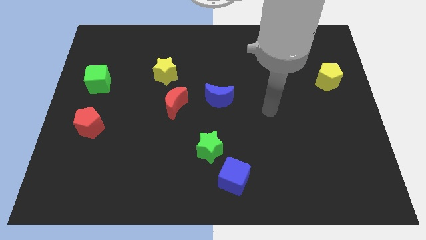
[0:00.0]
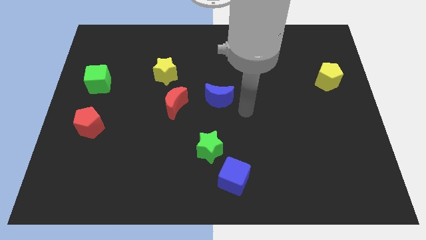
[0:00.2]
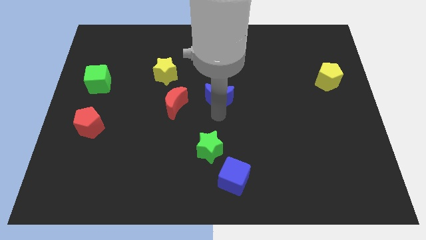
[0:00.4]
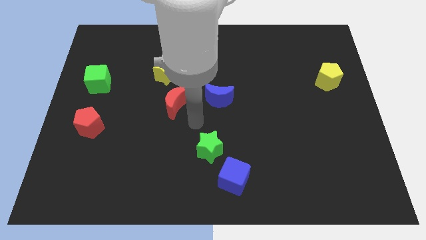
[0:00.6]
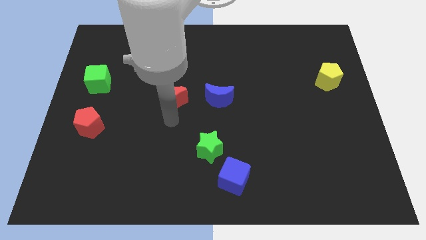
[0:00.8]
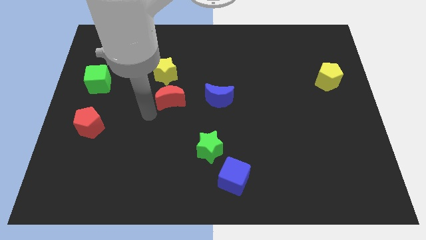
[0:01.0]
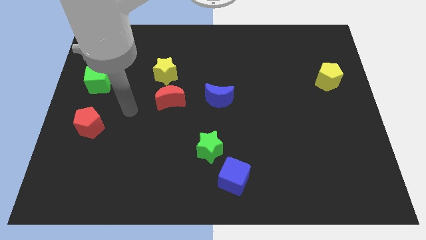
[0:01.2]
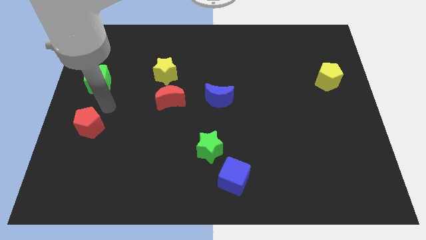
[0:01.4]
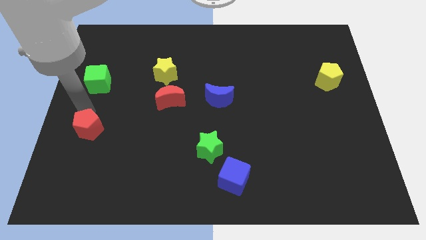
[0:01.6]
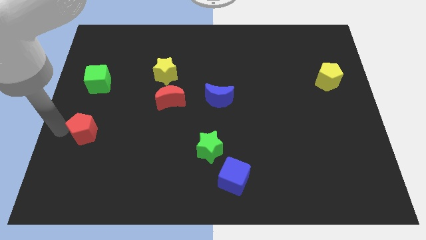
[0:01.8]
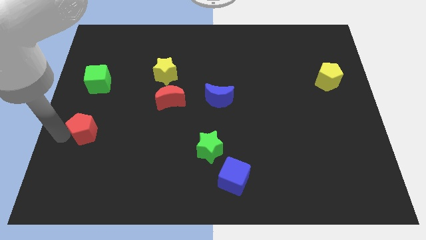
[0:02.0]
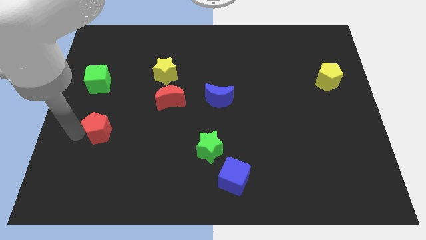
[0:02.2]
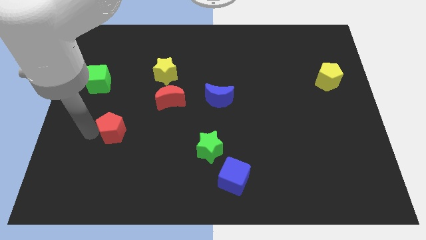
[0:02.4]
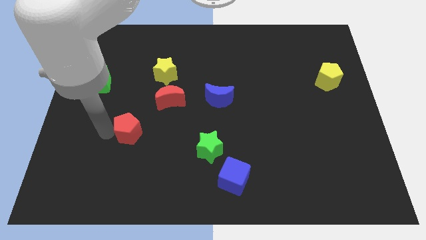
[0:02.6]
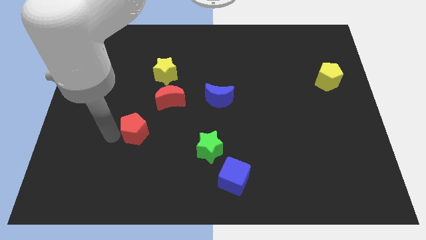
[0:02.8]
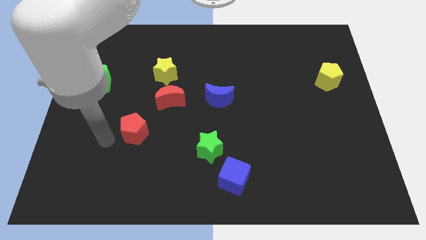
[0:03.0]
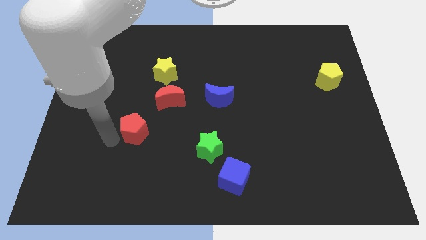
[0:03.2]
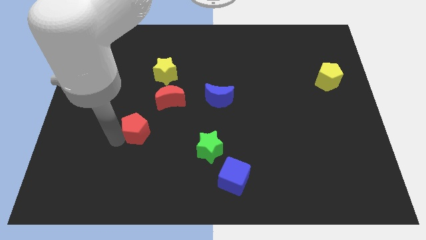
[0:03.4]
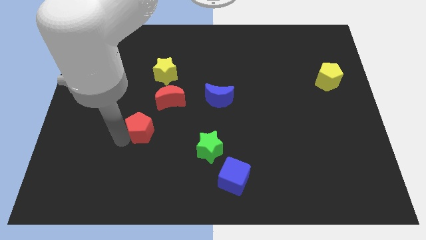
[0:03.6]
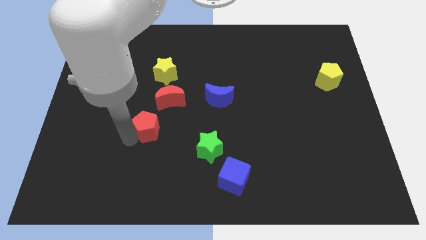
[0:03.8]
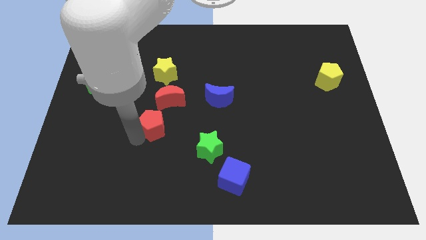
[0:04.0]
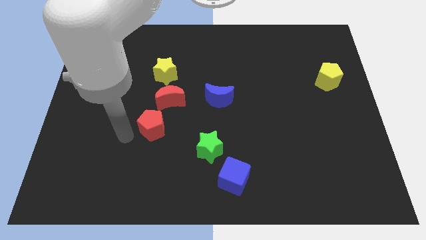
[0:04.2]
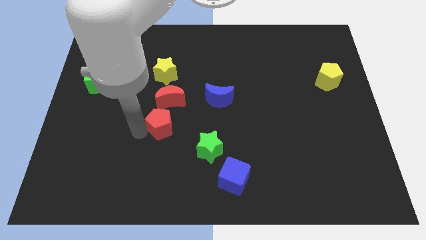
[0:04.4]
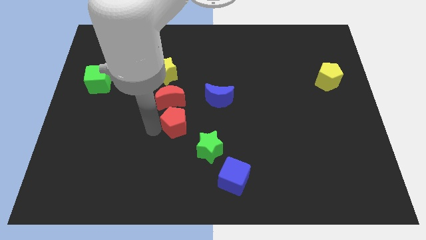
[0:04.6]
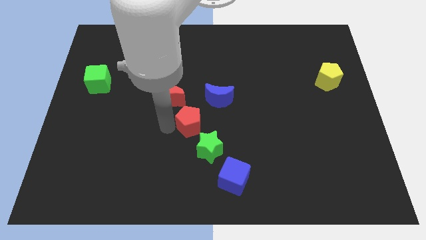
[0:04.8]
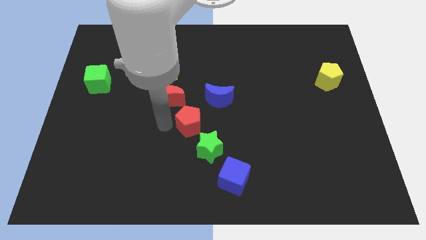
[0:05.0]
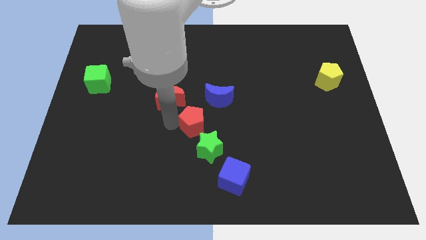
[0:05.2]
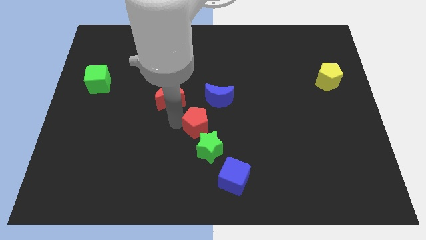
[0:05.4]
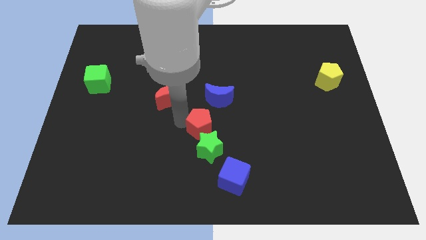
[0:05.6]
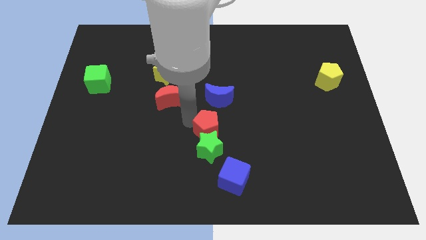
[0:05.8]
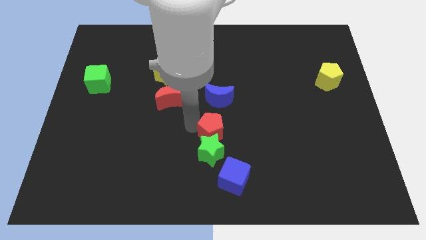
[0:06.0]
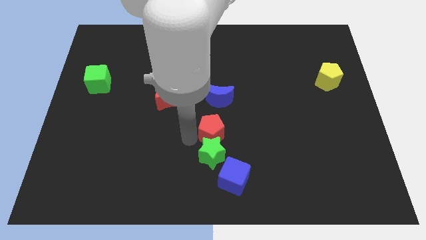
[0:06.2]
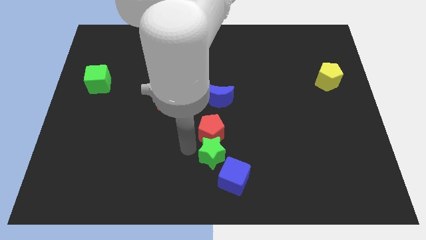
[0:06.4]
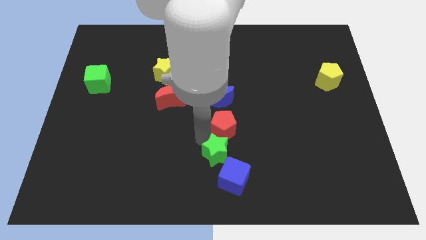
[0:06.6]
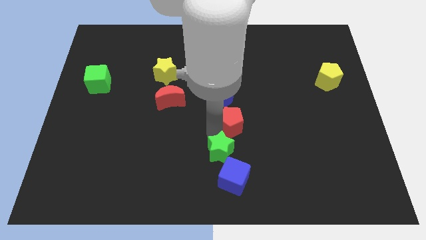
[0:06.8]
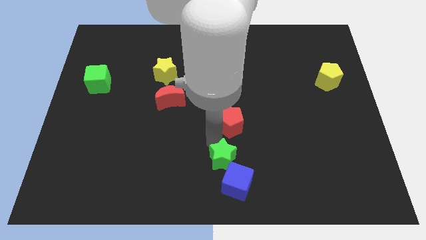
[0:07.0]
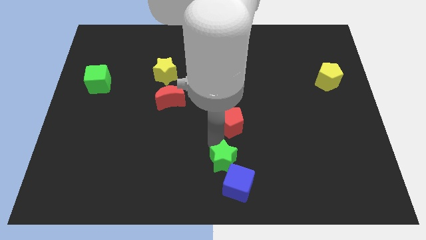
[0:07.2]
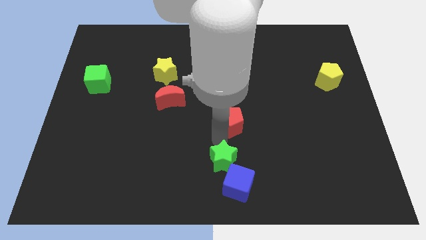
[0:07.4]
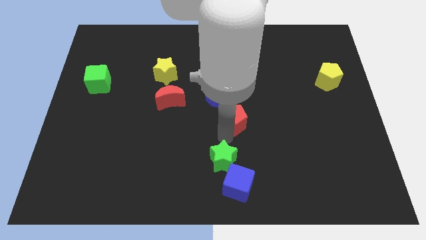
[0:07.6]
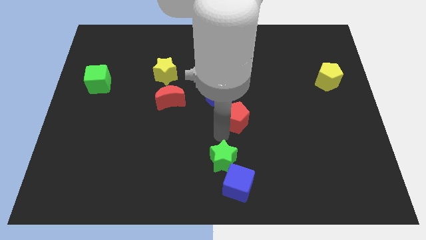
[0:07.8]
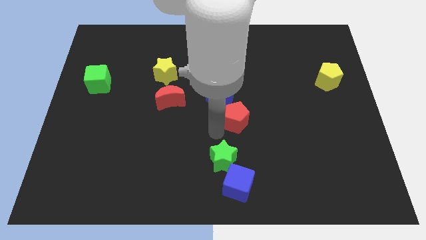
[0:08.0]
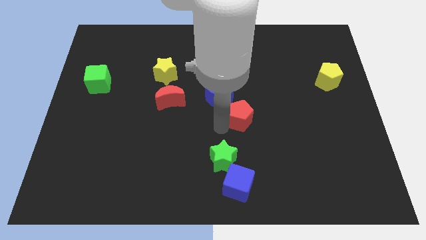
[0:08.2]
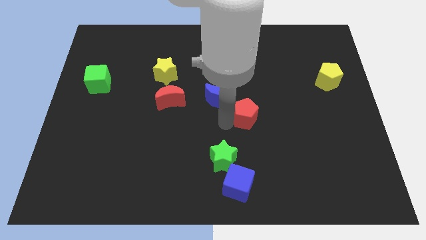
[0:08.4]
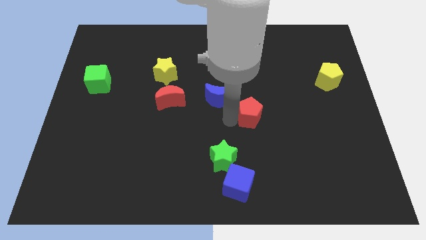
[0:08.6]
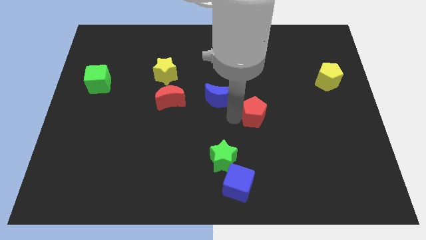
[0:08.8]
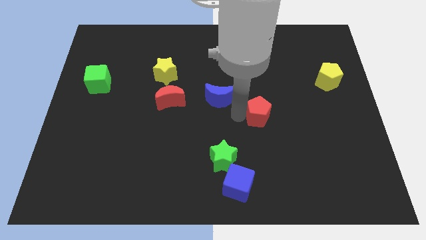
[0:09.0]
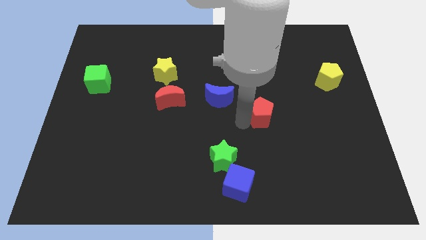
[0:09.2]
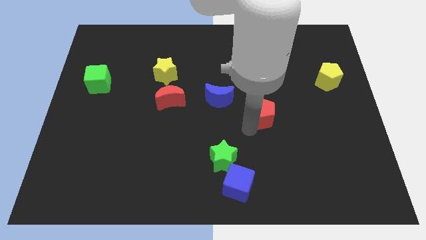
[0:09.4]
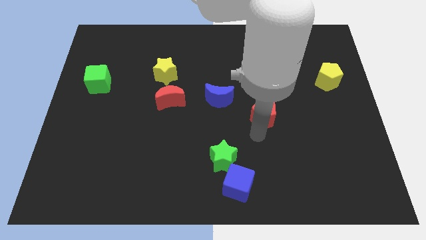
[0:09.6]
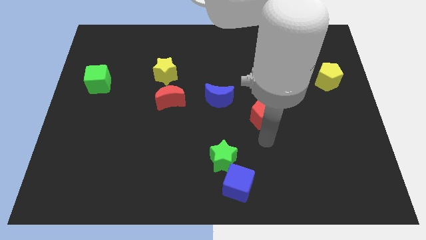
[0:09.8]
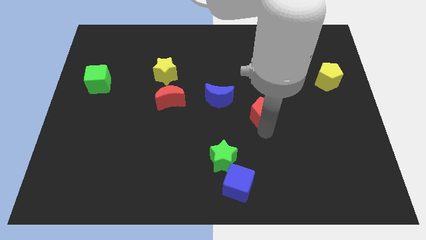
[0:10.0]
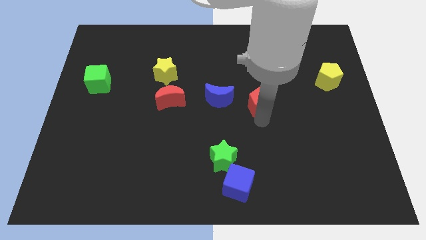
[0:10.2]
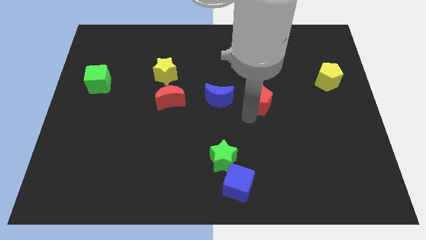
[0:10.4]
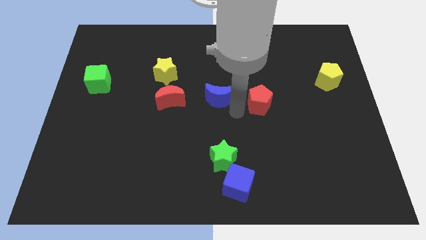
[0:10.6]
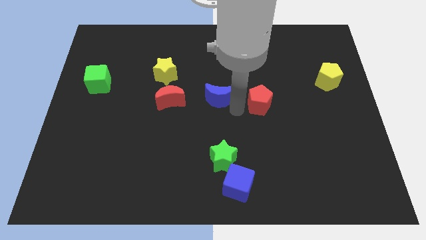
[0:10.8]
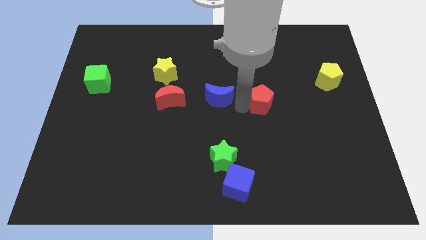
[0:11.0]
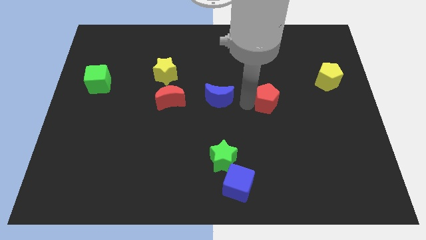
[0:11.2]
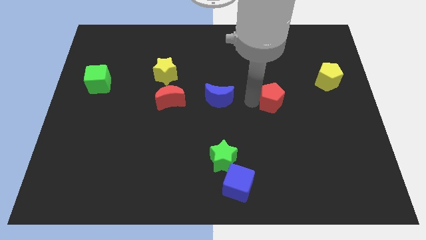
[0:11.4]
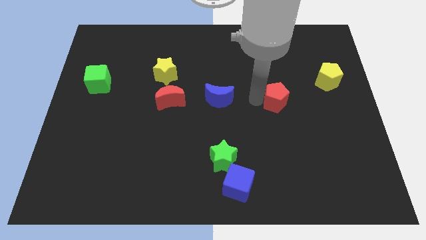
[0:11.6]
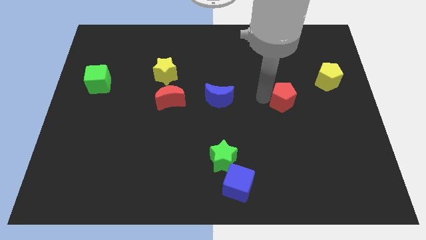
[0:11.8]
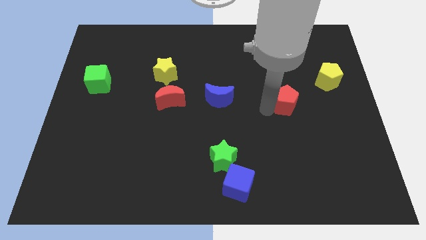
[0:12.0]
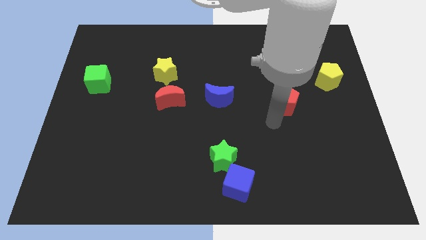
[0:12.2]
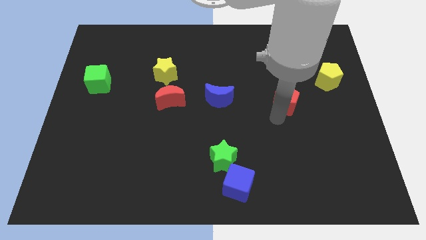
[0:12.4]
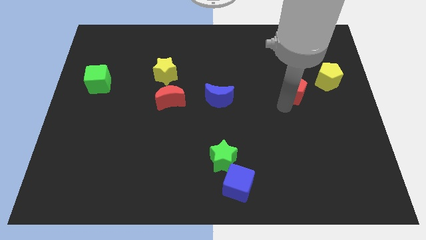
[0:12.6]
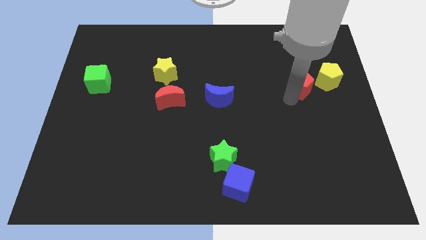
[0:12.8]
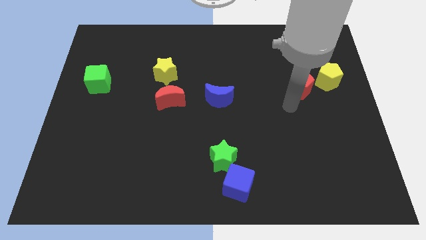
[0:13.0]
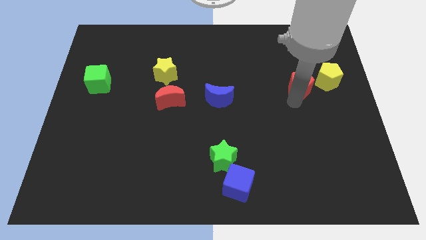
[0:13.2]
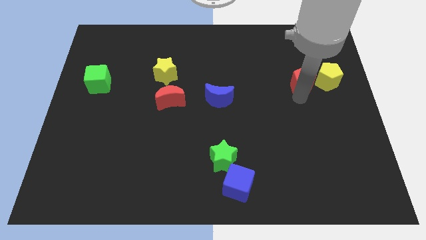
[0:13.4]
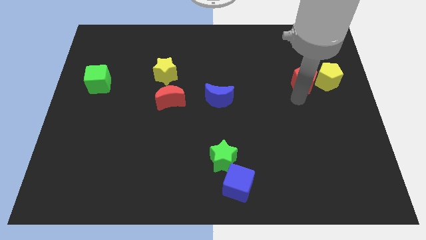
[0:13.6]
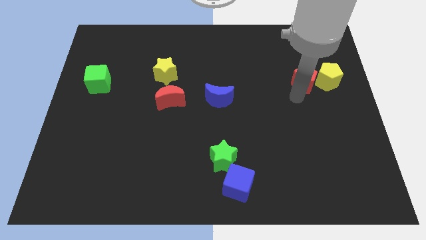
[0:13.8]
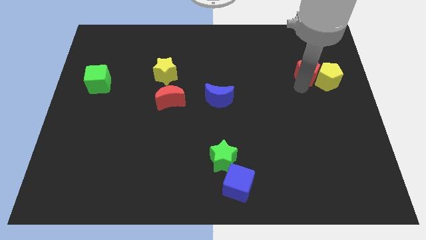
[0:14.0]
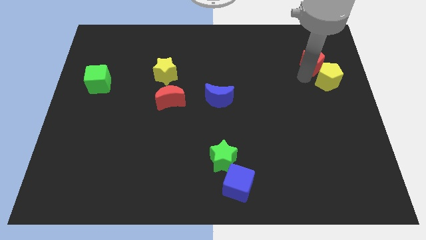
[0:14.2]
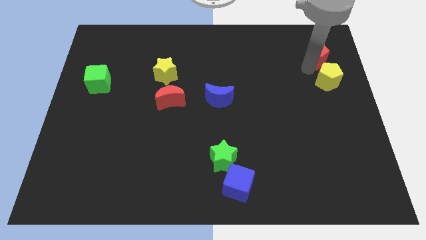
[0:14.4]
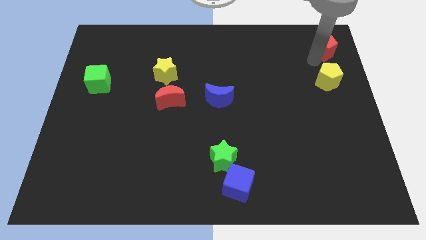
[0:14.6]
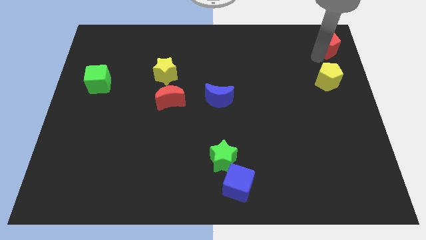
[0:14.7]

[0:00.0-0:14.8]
slide the red pentagon to the top right of the board
